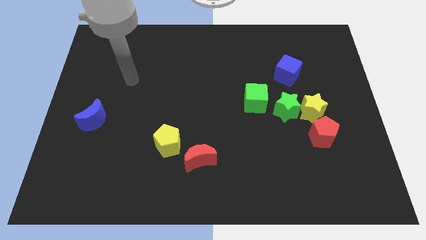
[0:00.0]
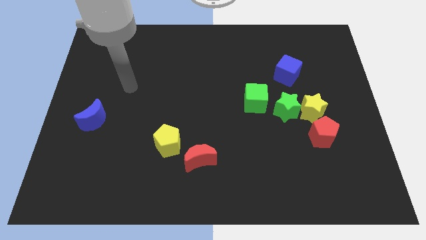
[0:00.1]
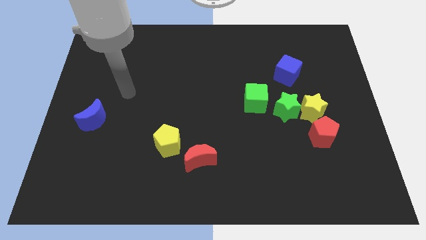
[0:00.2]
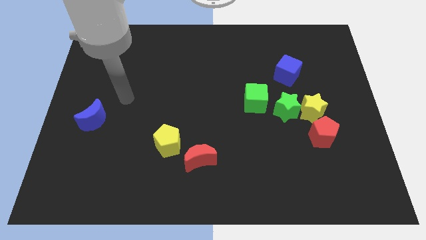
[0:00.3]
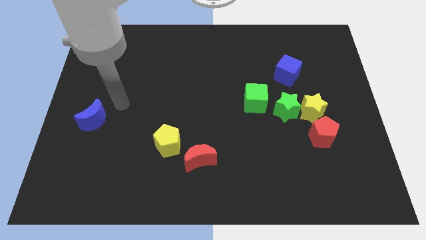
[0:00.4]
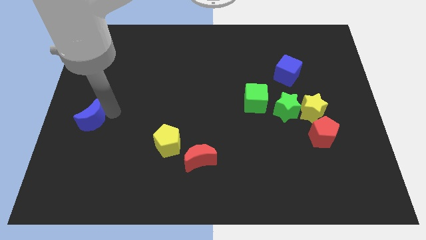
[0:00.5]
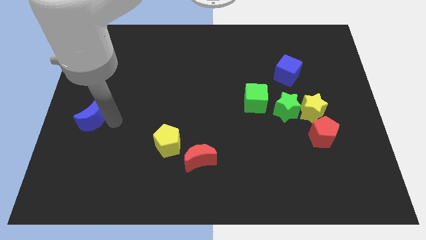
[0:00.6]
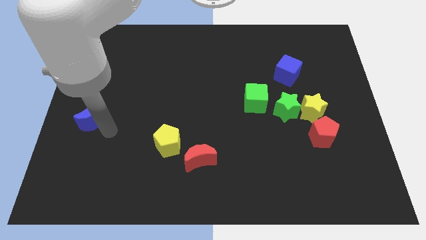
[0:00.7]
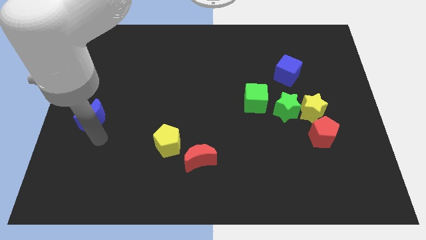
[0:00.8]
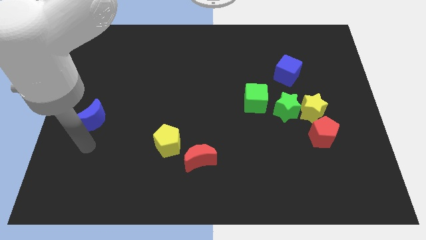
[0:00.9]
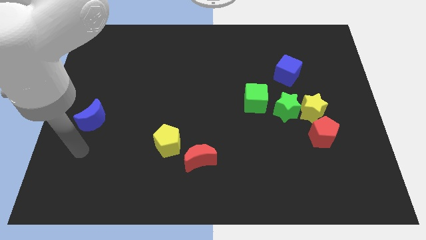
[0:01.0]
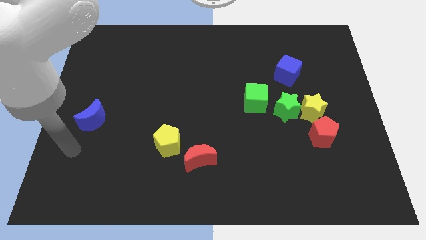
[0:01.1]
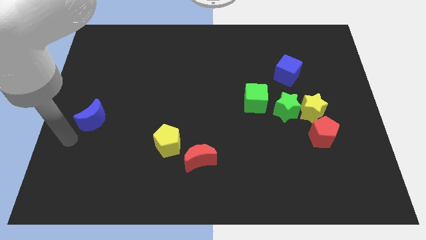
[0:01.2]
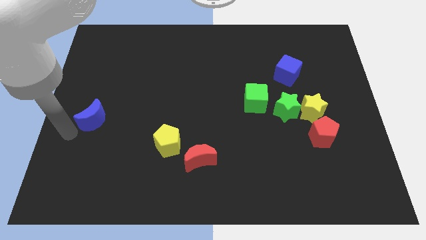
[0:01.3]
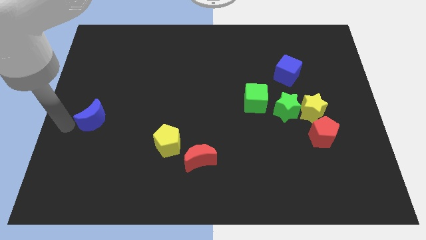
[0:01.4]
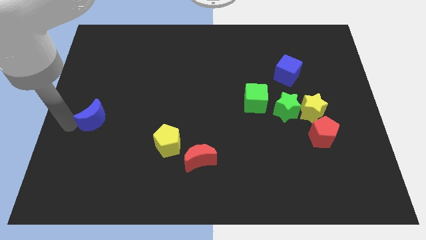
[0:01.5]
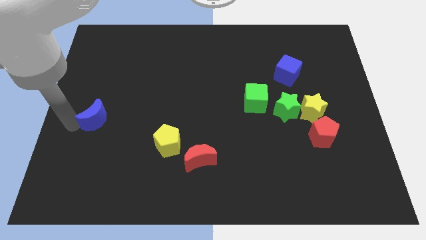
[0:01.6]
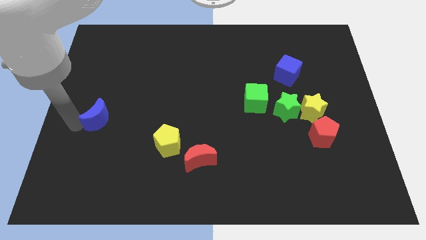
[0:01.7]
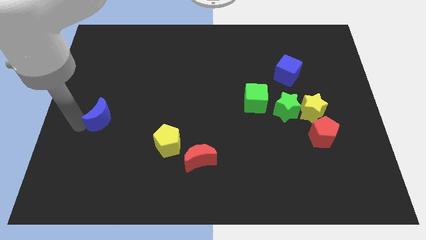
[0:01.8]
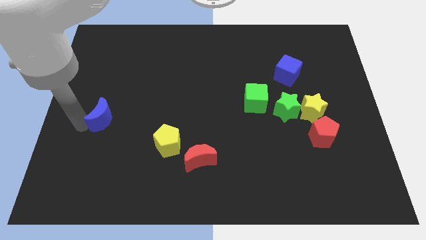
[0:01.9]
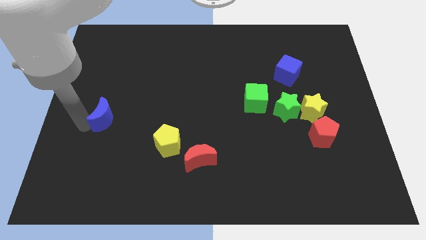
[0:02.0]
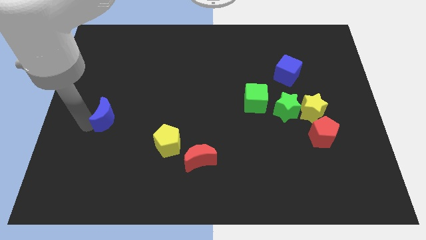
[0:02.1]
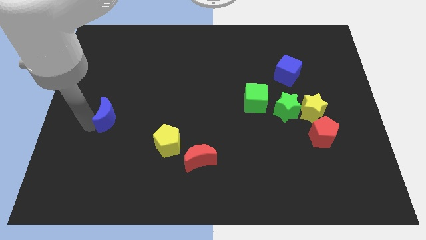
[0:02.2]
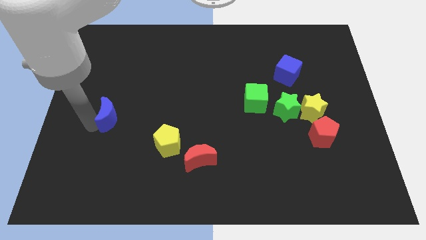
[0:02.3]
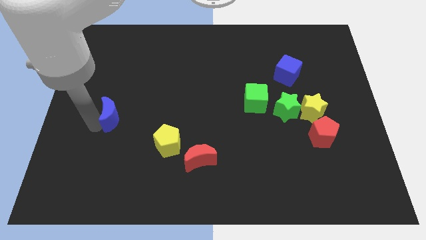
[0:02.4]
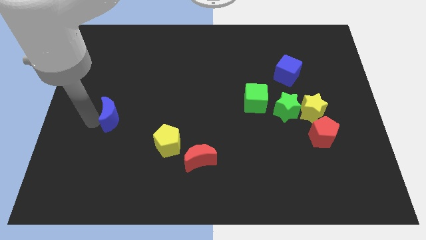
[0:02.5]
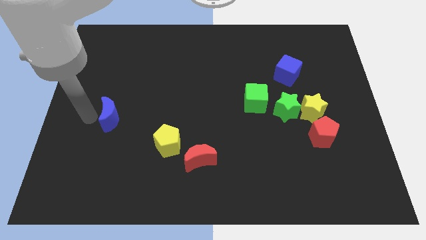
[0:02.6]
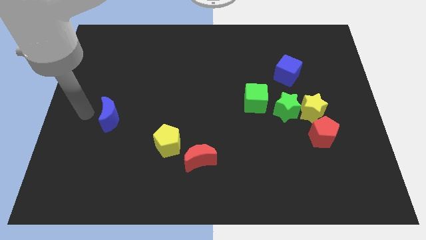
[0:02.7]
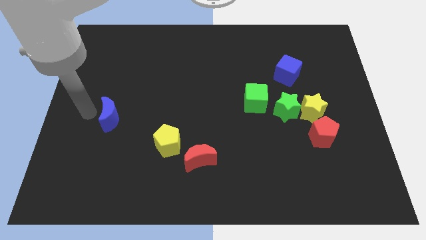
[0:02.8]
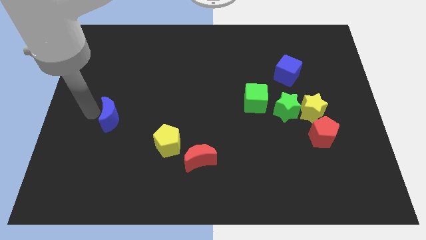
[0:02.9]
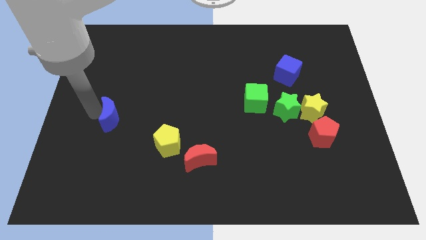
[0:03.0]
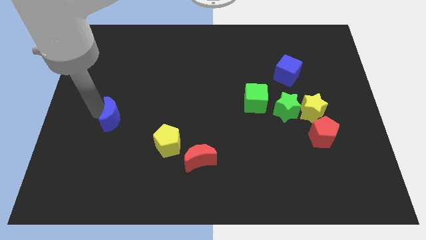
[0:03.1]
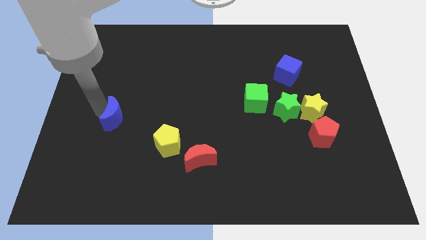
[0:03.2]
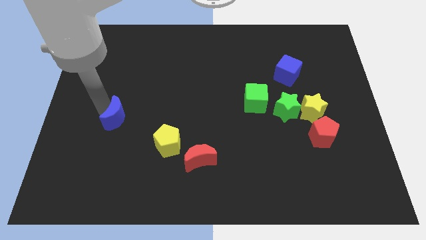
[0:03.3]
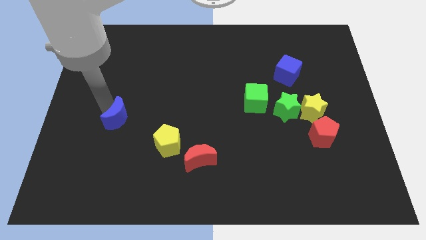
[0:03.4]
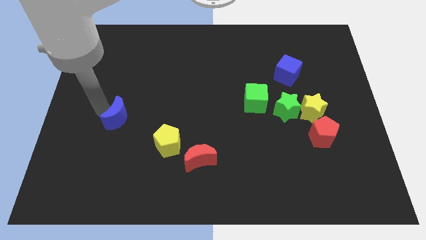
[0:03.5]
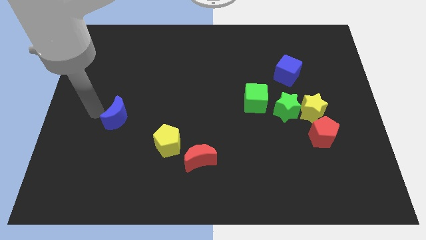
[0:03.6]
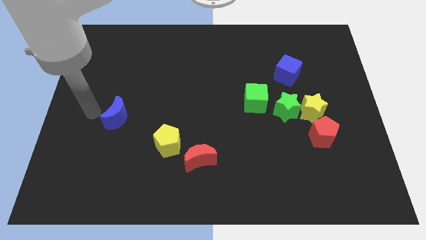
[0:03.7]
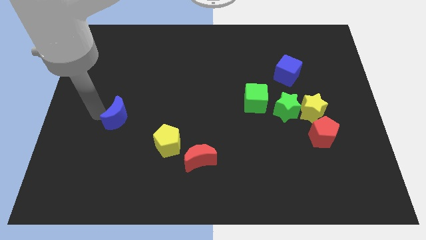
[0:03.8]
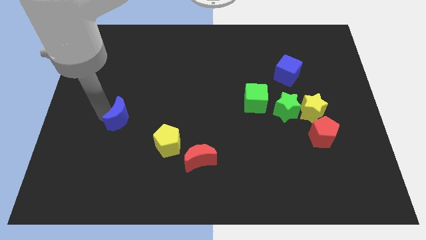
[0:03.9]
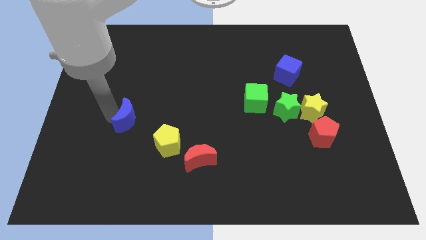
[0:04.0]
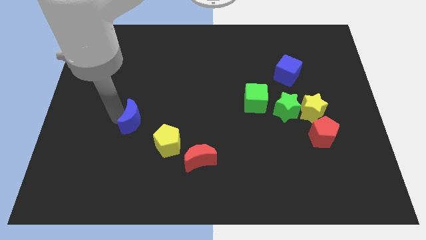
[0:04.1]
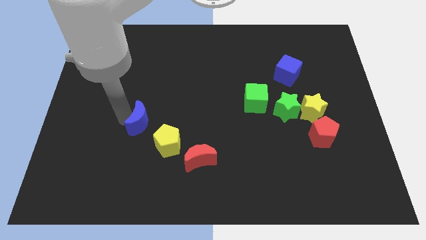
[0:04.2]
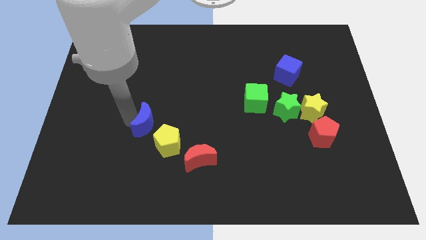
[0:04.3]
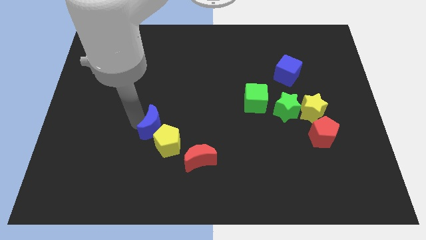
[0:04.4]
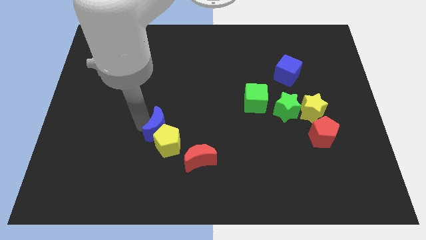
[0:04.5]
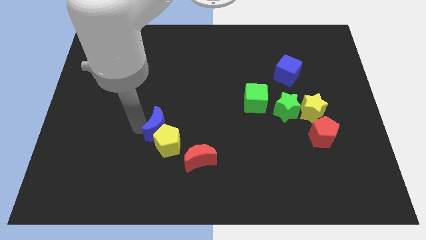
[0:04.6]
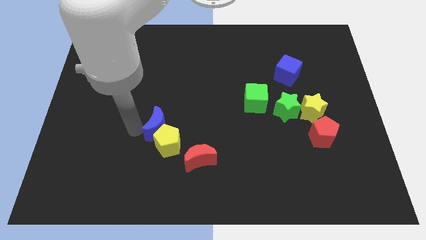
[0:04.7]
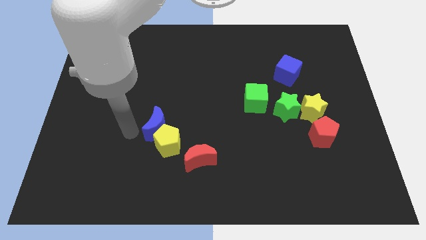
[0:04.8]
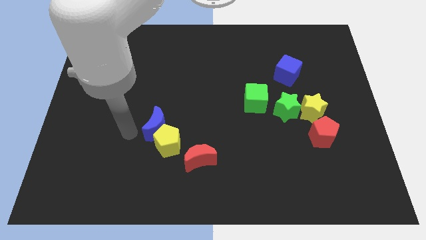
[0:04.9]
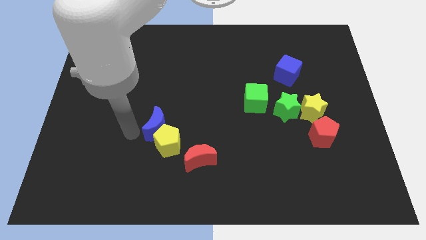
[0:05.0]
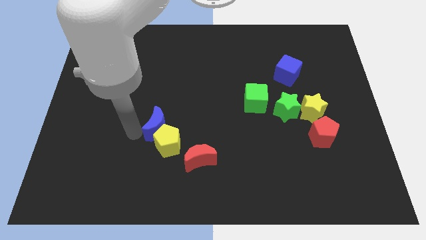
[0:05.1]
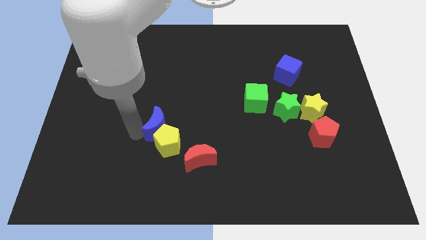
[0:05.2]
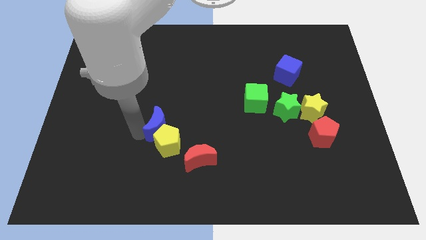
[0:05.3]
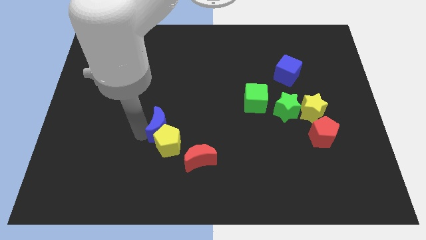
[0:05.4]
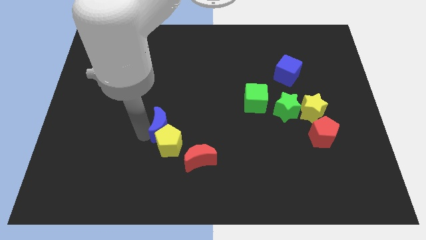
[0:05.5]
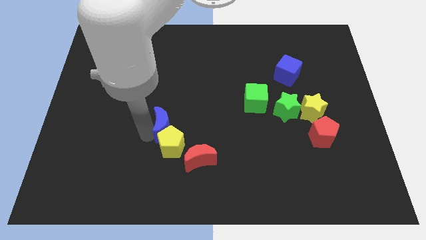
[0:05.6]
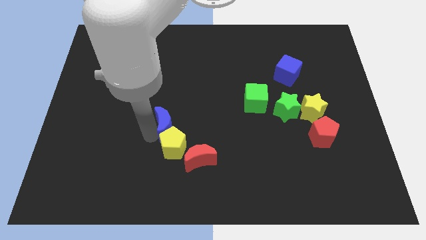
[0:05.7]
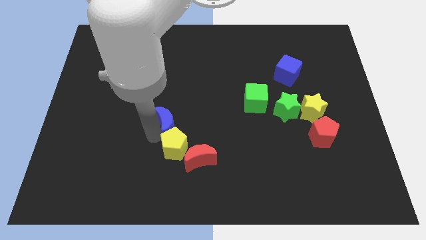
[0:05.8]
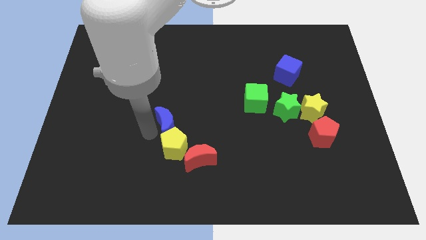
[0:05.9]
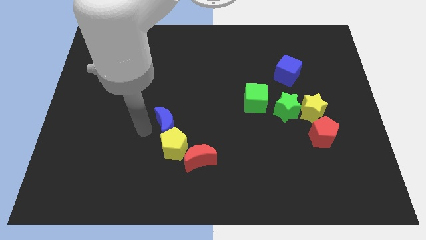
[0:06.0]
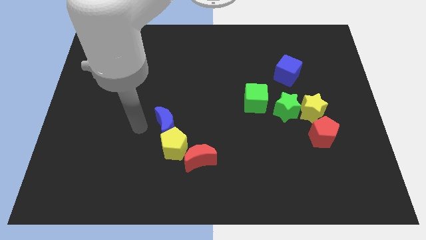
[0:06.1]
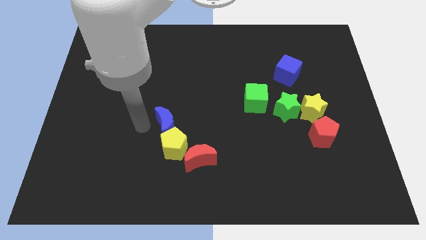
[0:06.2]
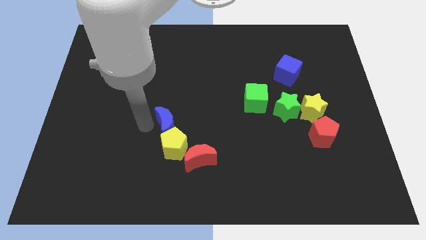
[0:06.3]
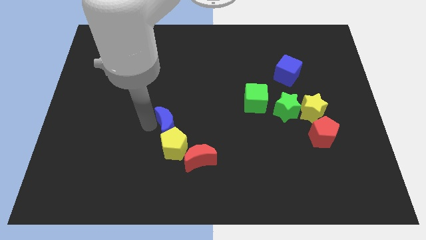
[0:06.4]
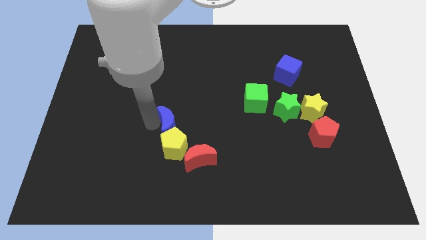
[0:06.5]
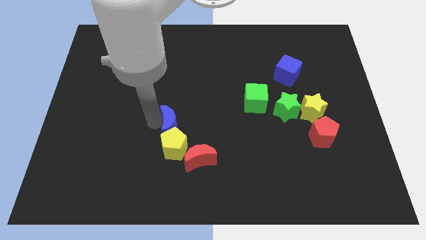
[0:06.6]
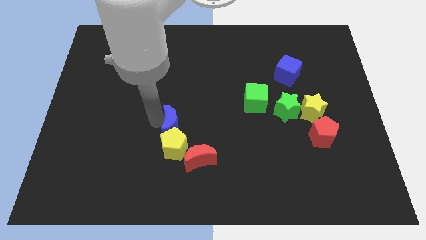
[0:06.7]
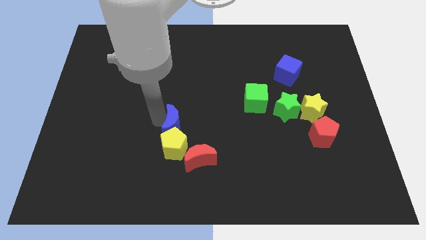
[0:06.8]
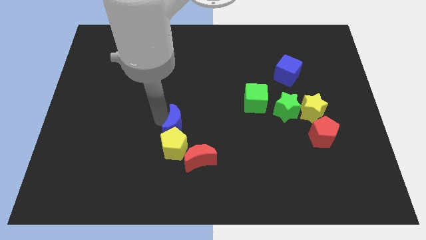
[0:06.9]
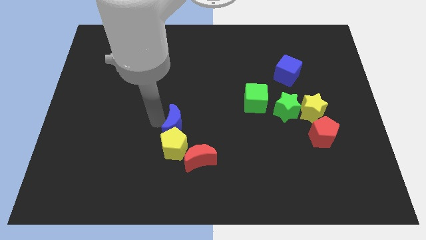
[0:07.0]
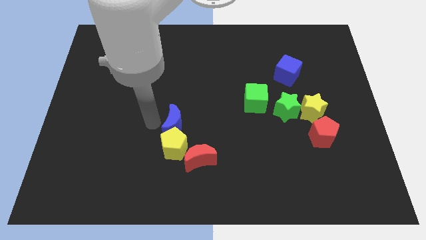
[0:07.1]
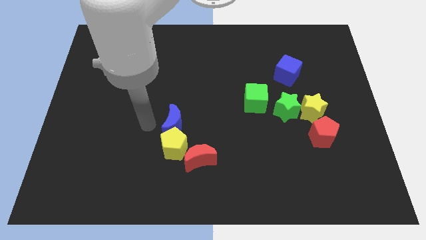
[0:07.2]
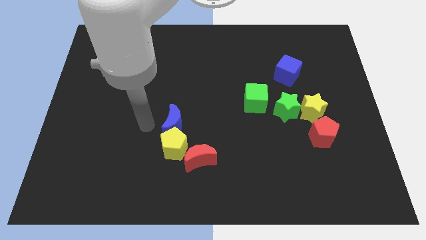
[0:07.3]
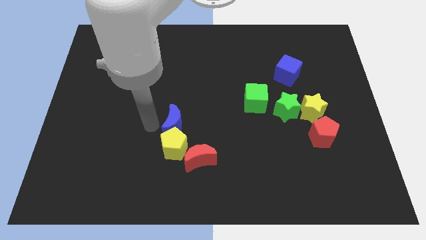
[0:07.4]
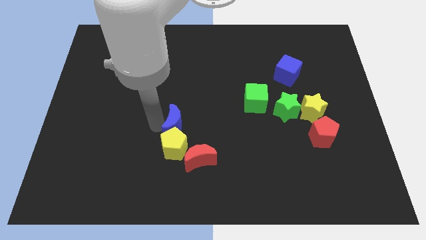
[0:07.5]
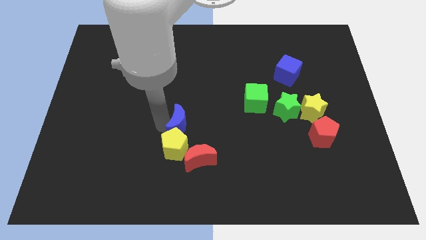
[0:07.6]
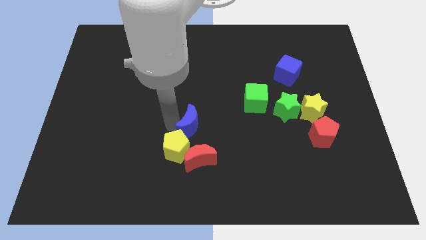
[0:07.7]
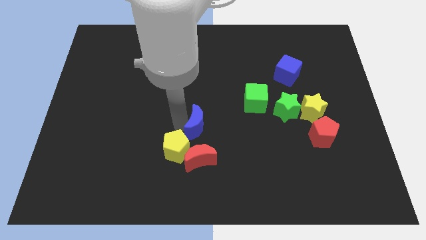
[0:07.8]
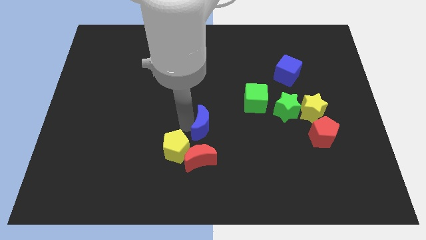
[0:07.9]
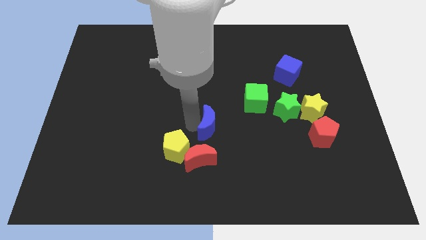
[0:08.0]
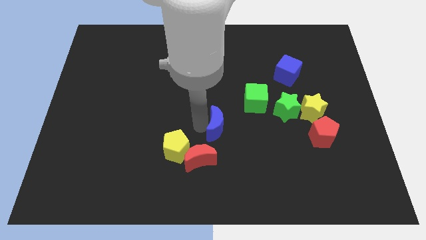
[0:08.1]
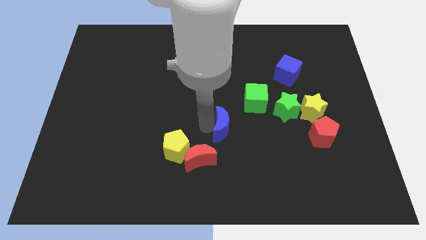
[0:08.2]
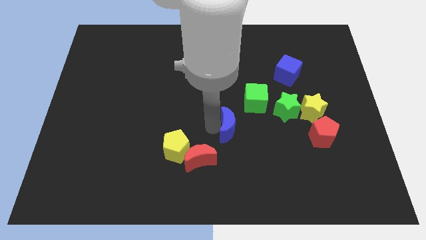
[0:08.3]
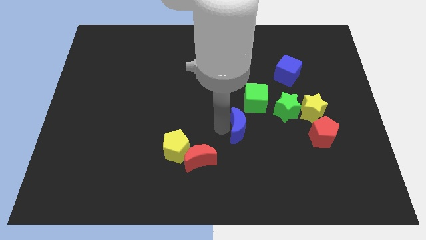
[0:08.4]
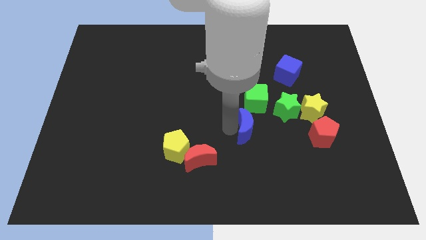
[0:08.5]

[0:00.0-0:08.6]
move the blue moon to the bottom left of the green star
